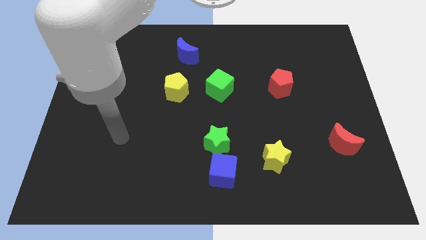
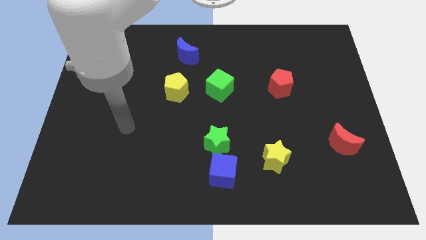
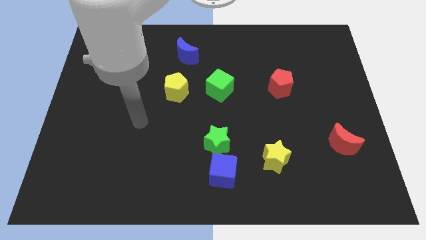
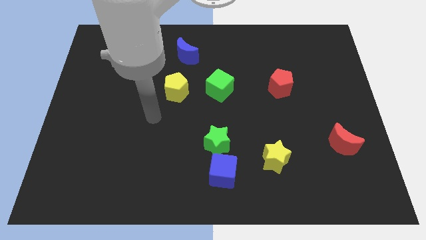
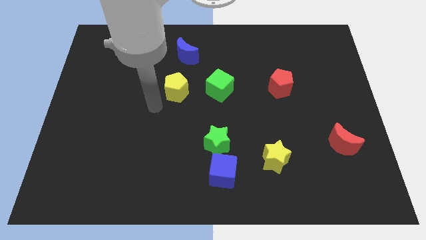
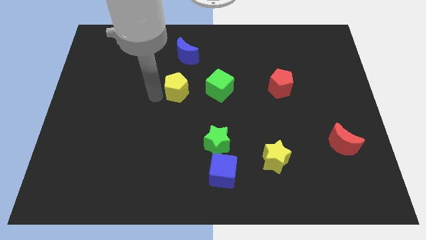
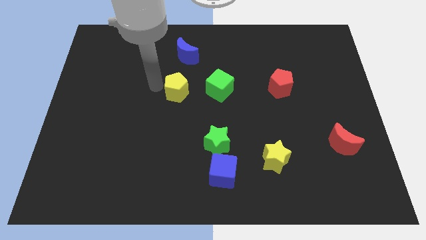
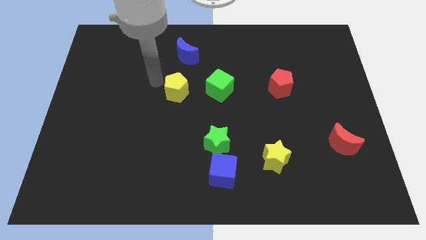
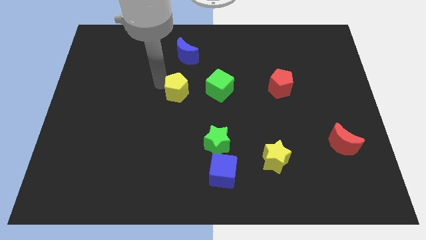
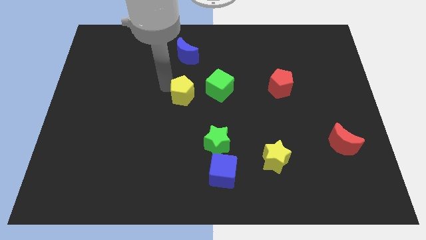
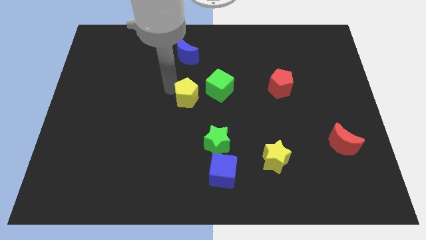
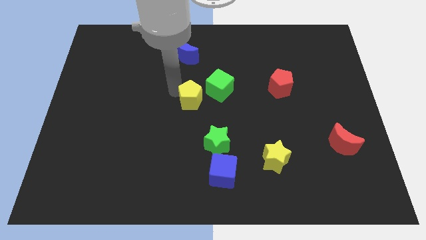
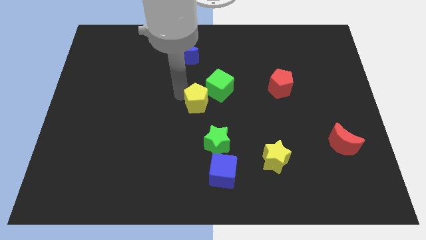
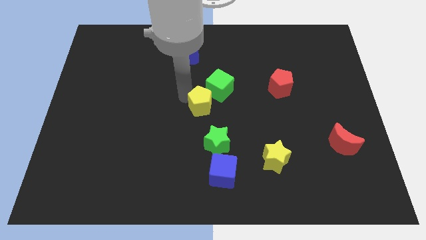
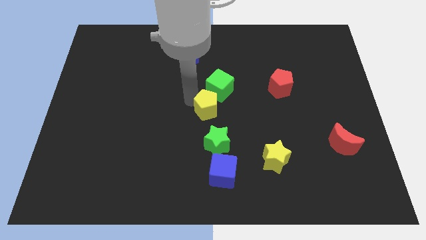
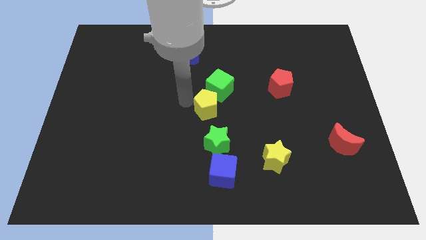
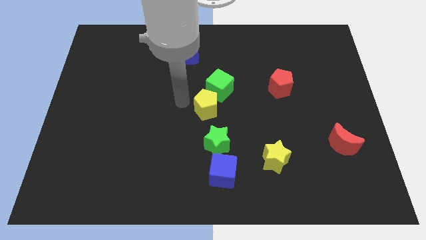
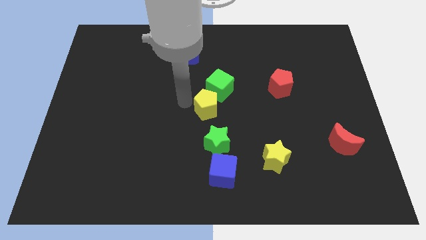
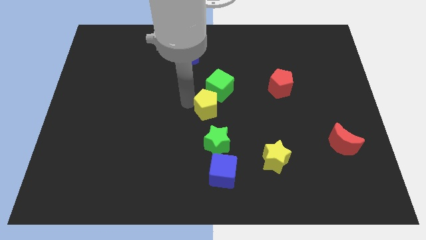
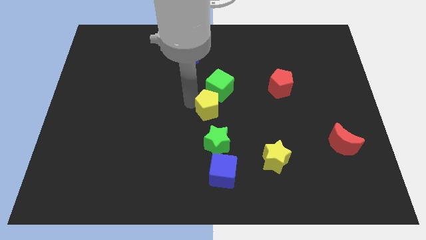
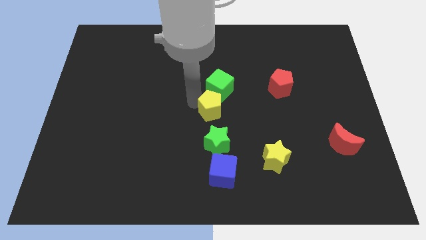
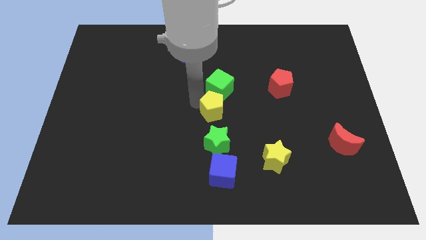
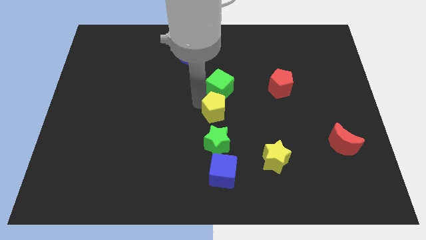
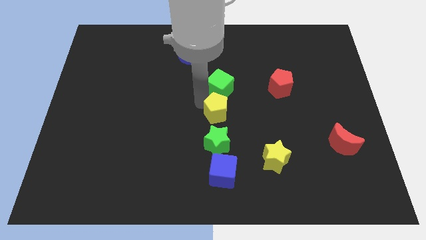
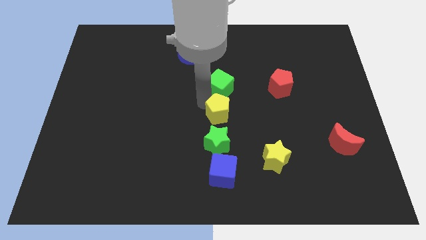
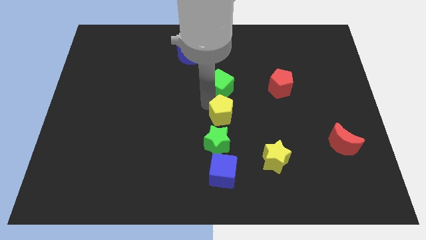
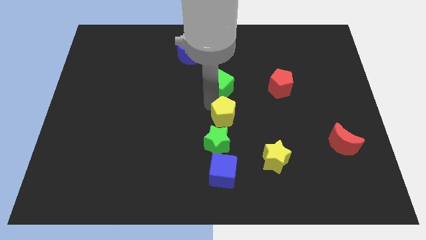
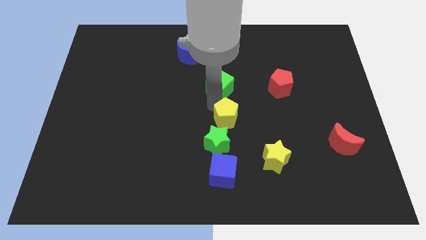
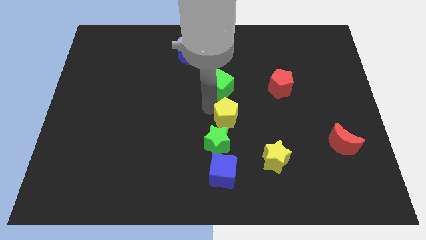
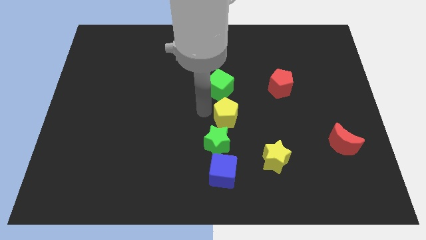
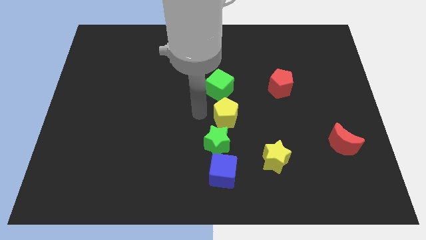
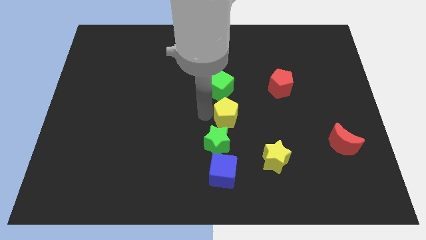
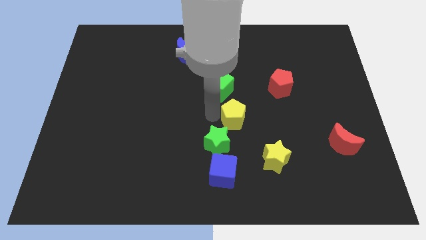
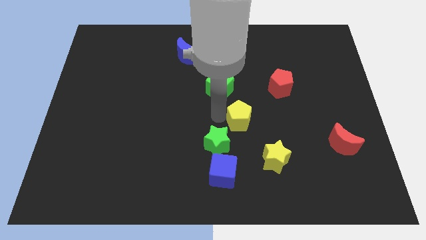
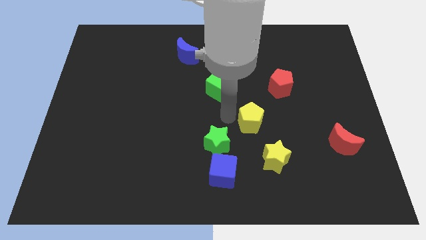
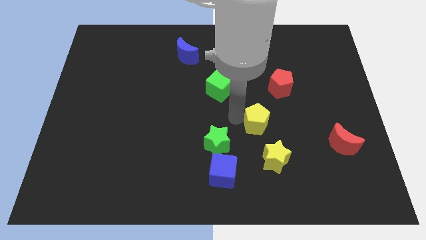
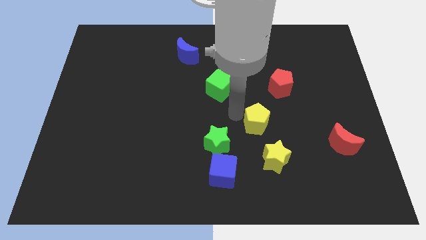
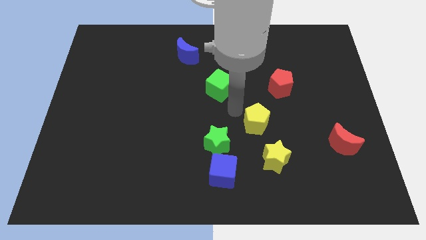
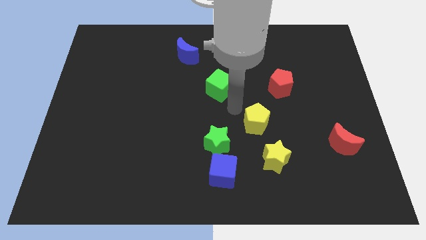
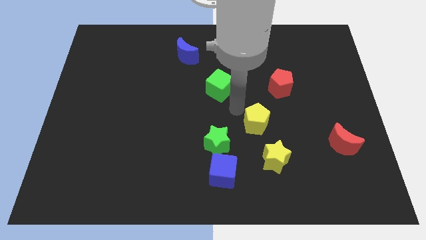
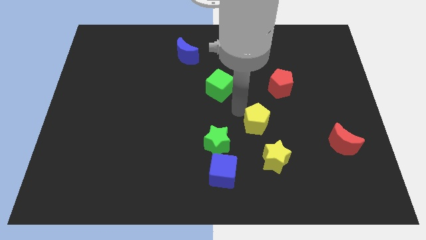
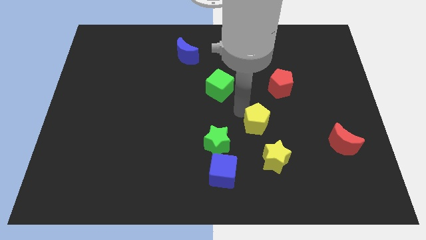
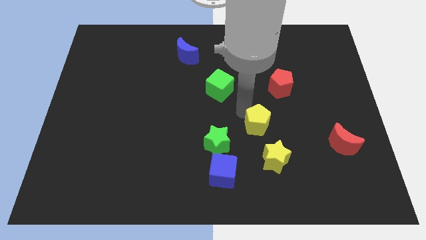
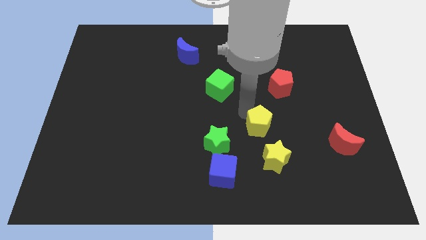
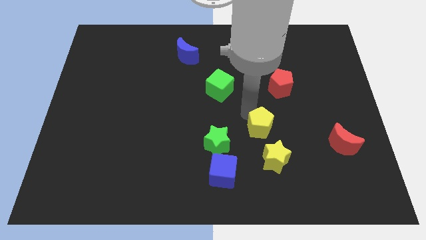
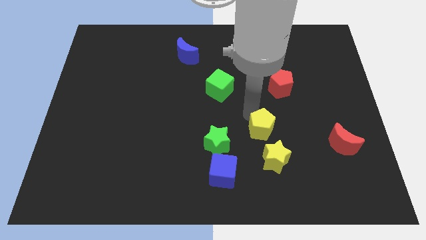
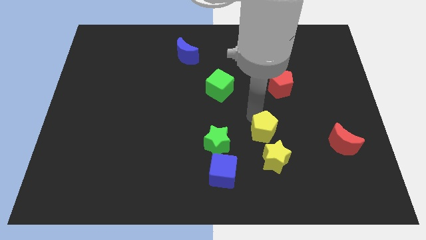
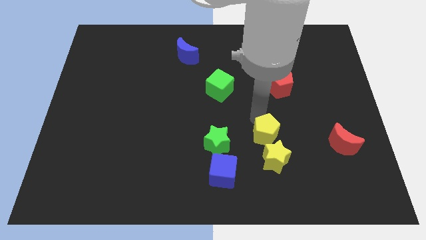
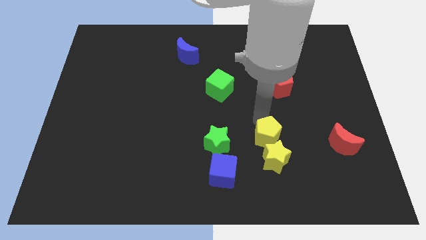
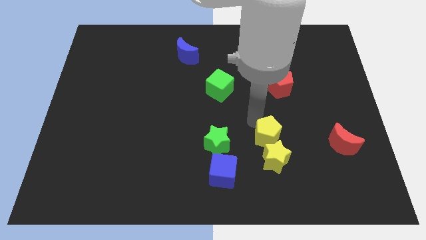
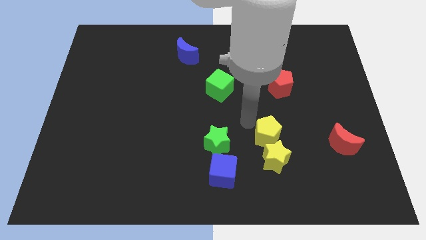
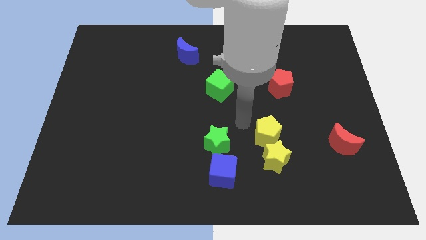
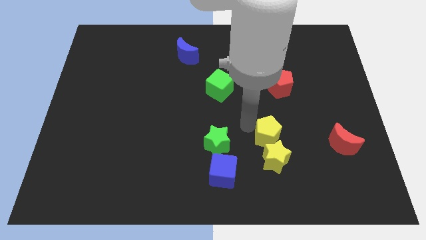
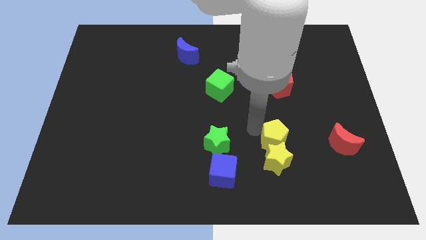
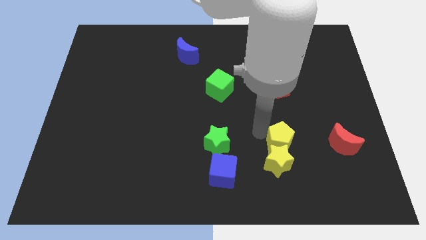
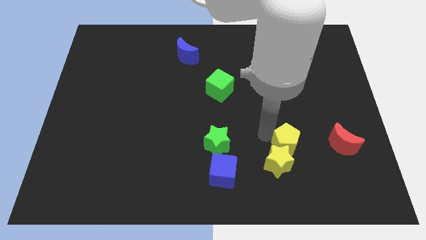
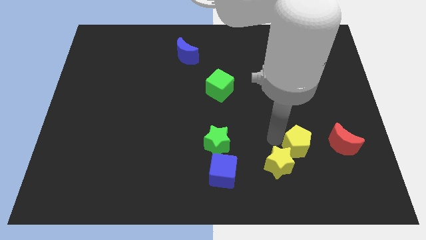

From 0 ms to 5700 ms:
move the yellow pentagon to the right of the yellow star

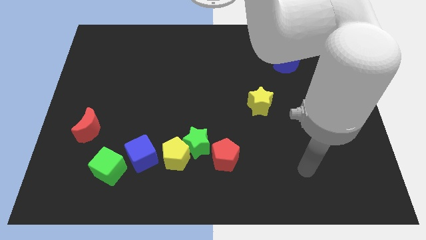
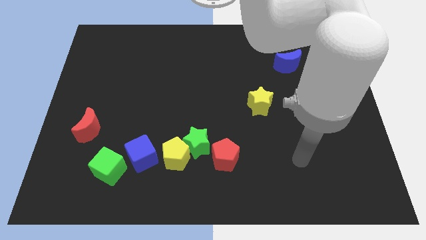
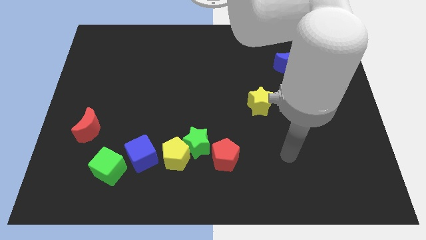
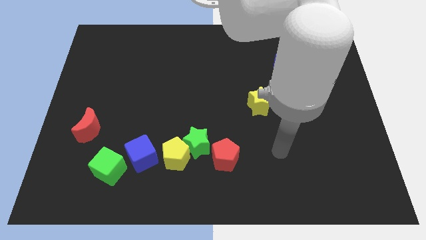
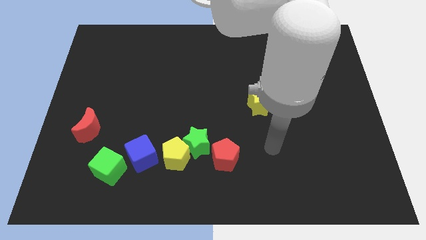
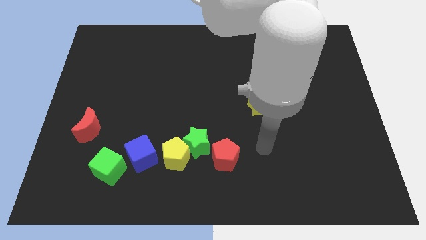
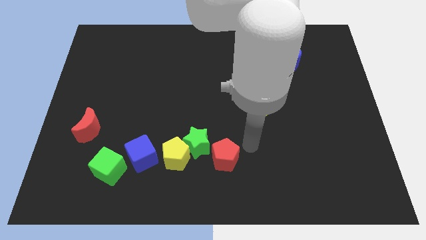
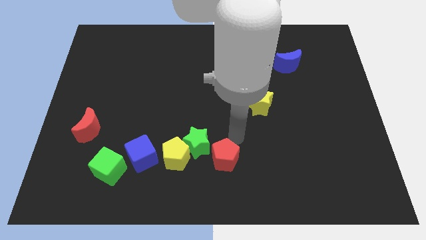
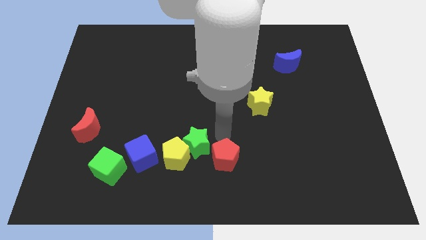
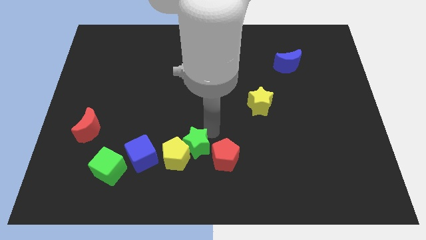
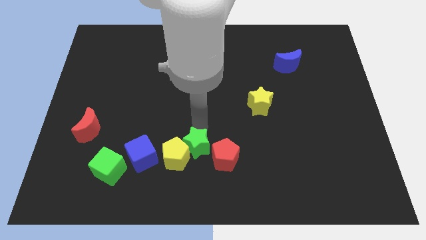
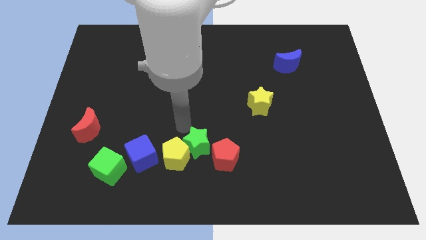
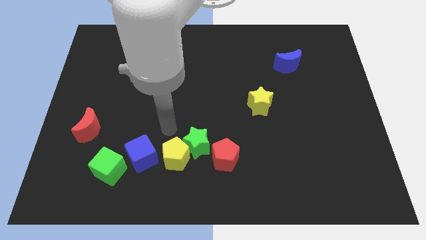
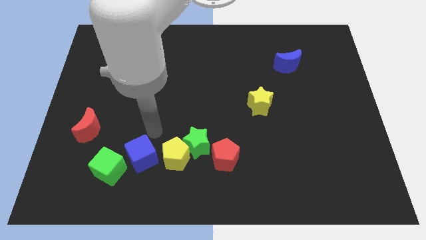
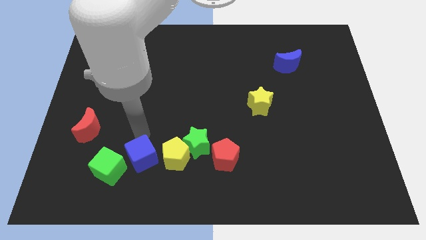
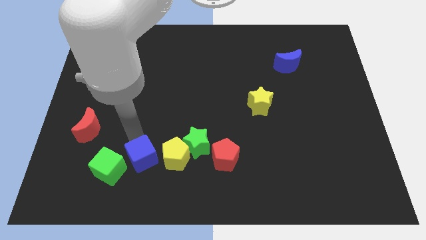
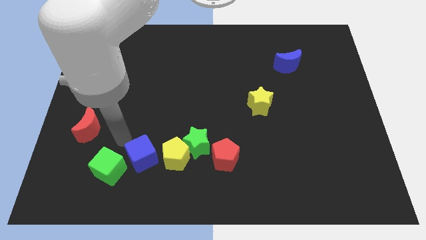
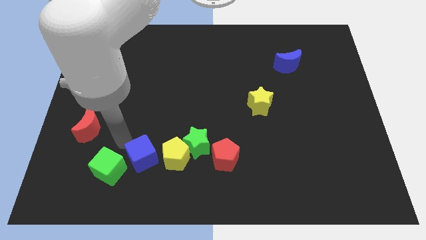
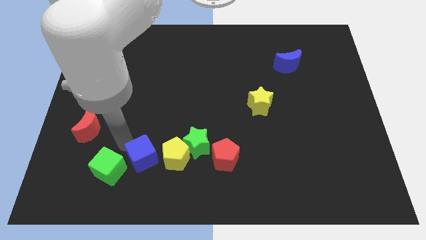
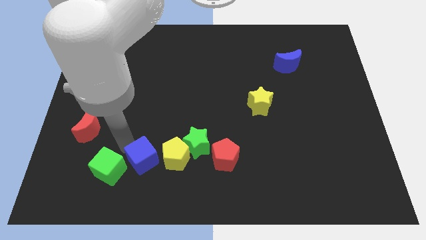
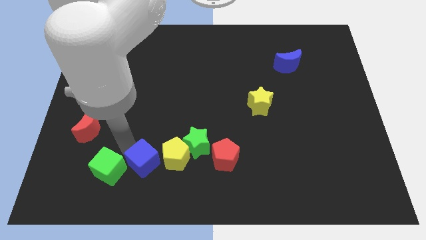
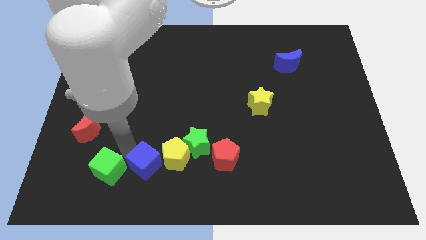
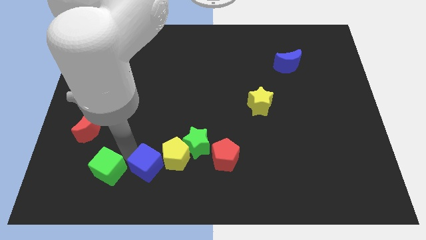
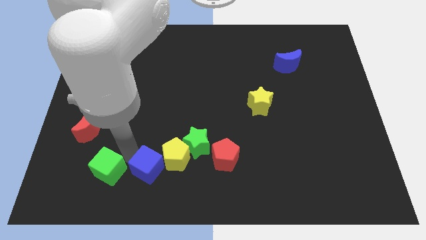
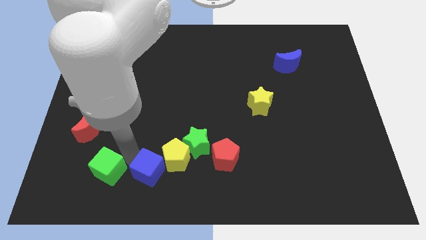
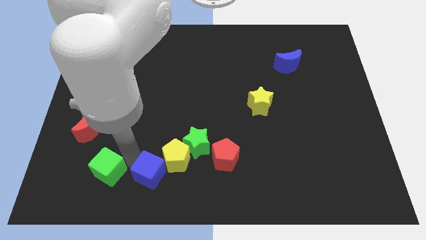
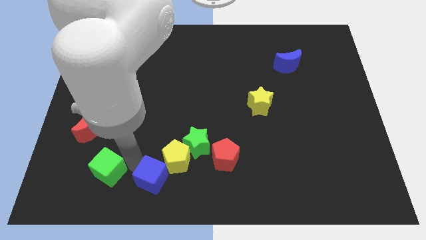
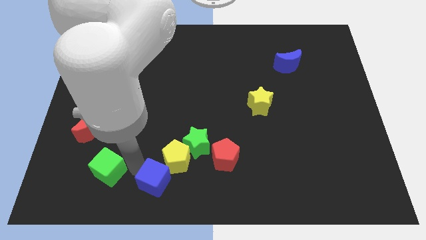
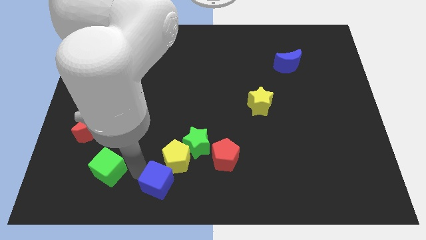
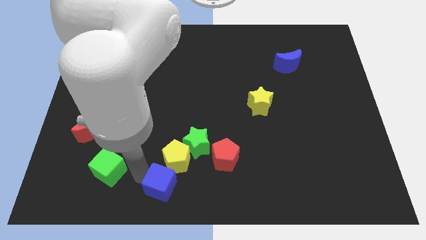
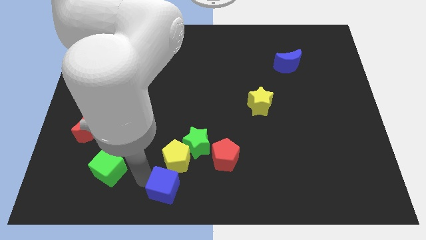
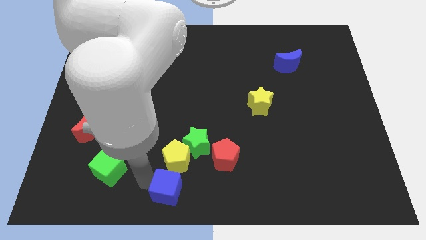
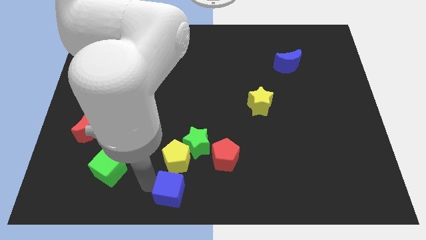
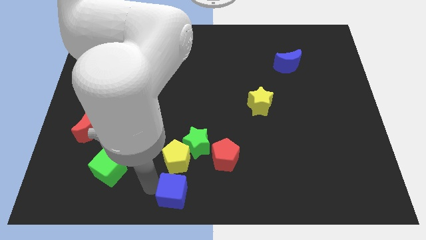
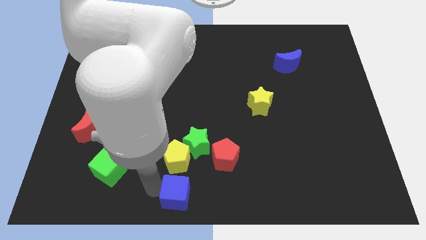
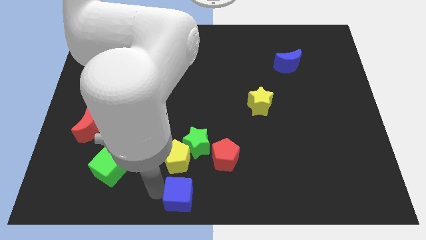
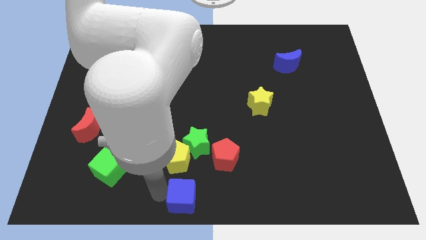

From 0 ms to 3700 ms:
push the blue cube to the bottom right of the yellow pentagon
